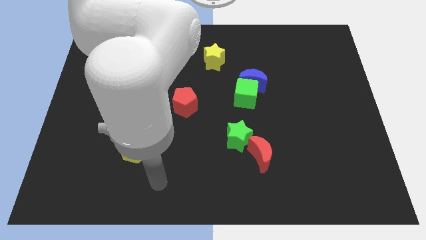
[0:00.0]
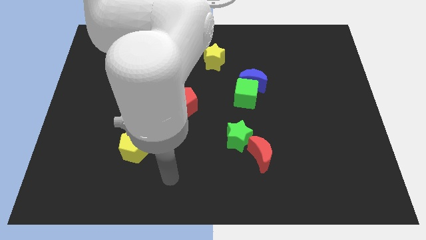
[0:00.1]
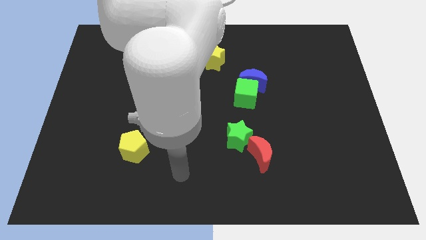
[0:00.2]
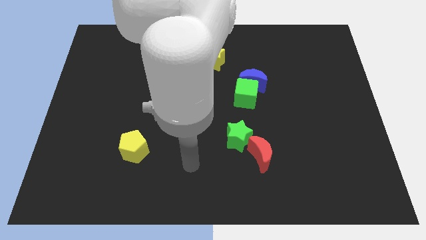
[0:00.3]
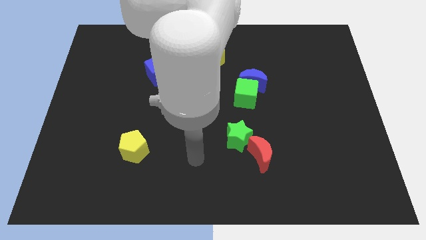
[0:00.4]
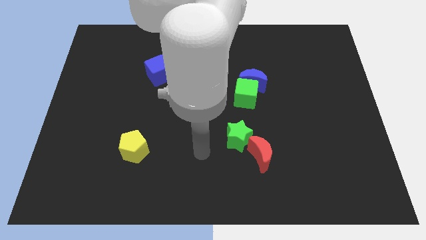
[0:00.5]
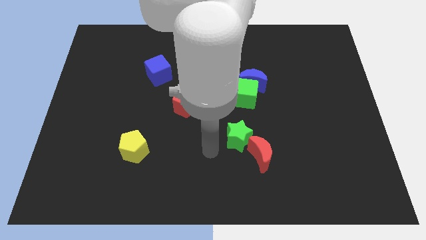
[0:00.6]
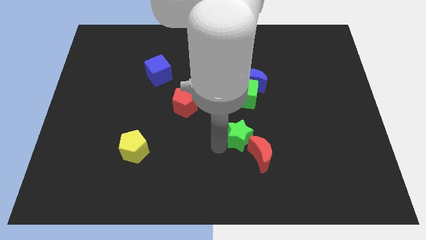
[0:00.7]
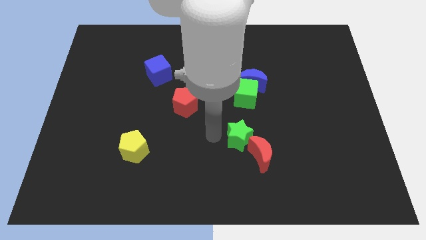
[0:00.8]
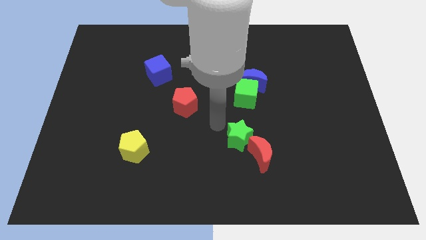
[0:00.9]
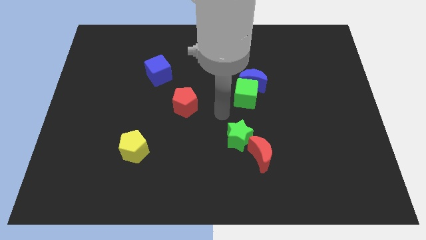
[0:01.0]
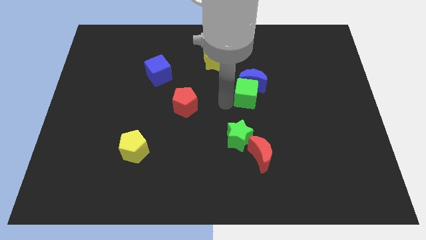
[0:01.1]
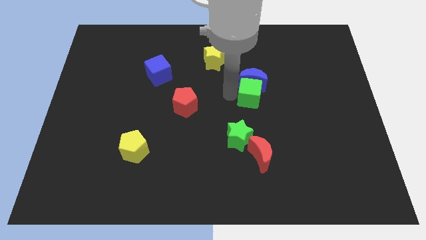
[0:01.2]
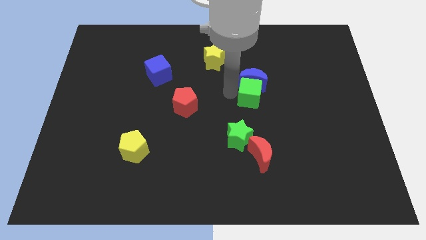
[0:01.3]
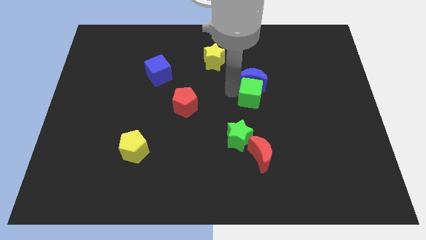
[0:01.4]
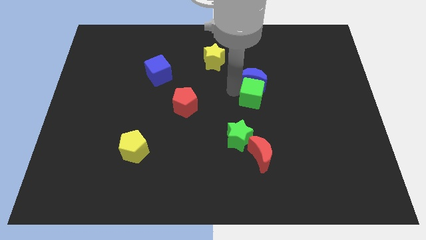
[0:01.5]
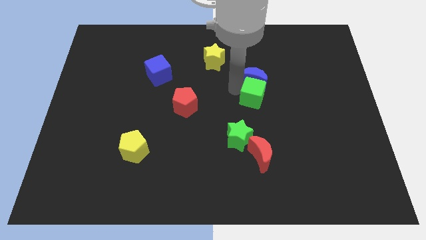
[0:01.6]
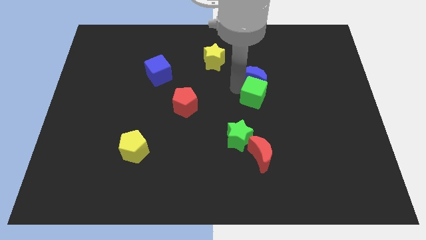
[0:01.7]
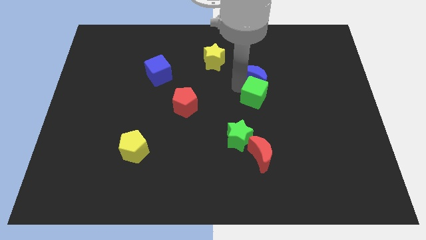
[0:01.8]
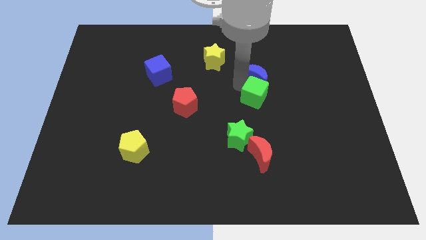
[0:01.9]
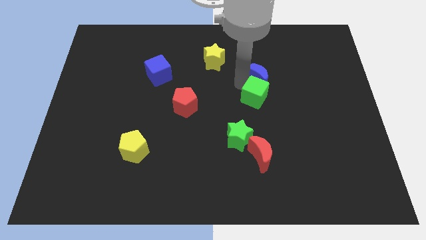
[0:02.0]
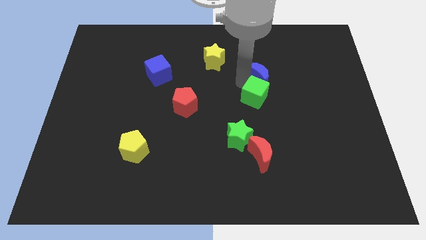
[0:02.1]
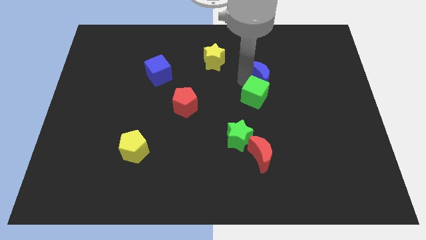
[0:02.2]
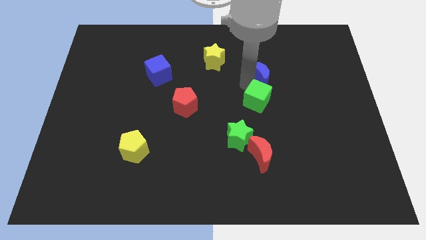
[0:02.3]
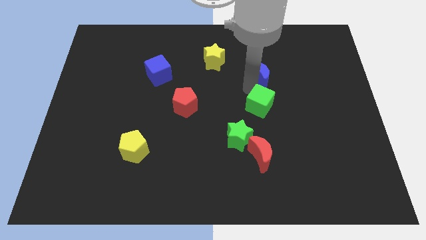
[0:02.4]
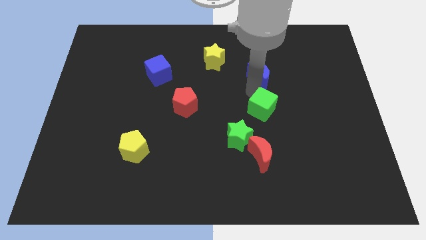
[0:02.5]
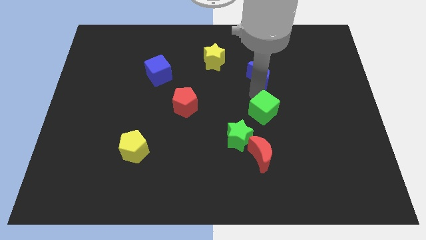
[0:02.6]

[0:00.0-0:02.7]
move the blue moon away from the green cube

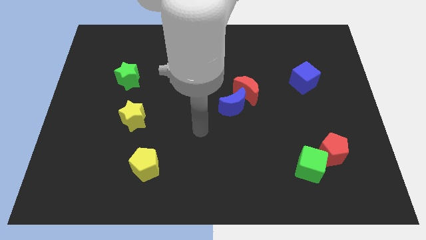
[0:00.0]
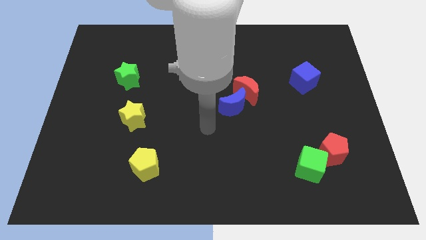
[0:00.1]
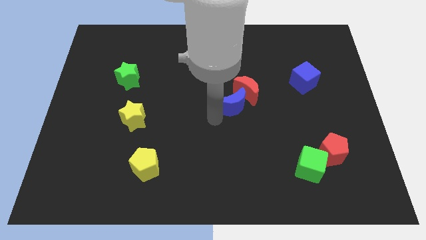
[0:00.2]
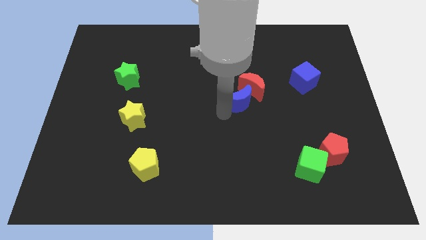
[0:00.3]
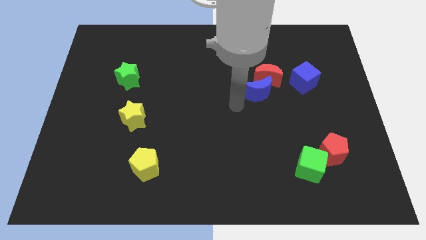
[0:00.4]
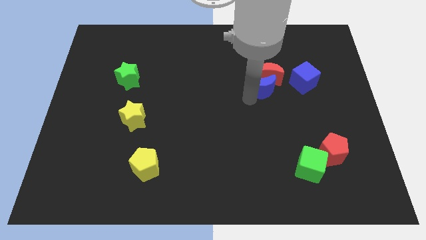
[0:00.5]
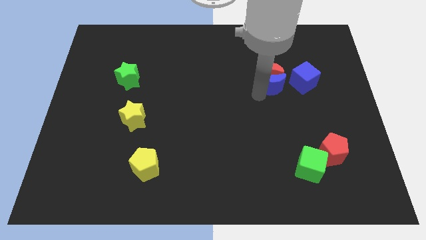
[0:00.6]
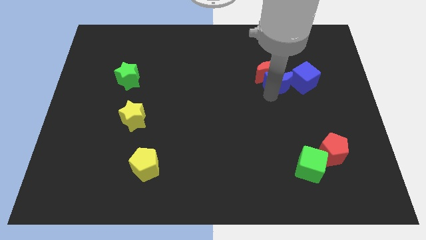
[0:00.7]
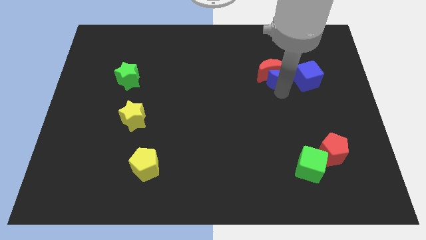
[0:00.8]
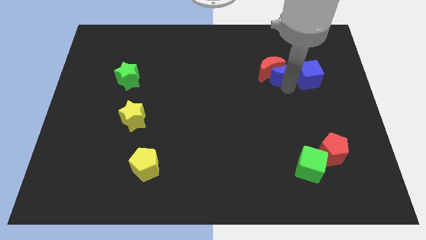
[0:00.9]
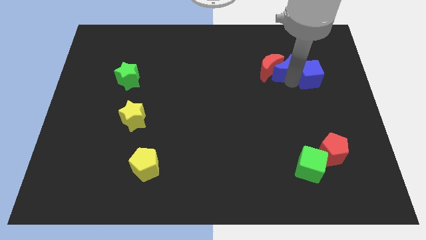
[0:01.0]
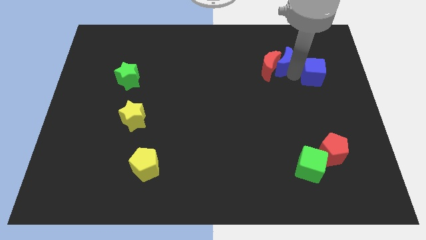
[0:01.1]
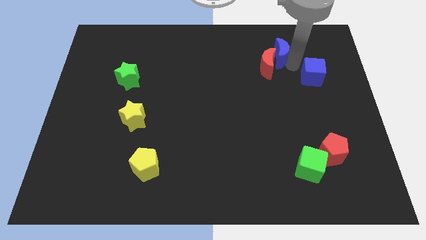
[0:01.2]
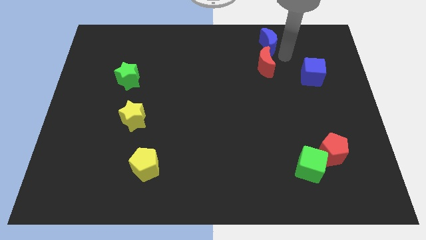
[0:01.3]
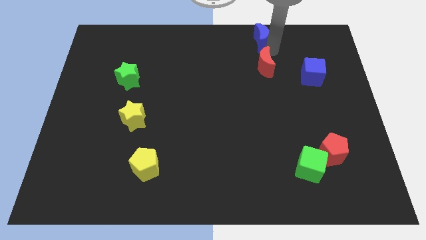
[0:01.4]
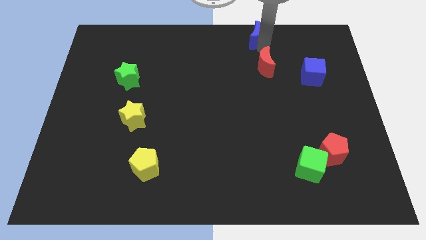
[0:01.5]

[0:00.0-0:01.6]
separate the red moon from the blue moon

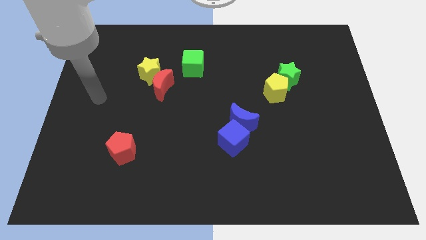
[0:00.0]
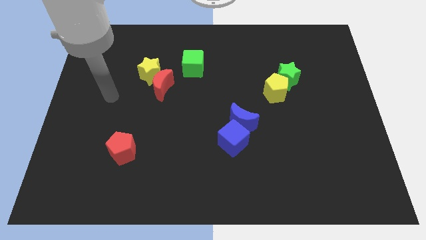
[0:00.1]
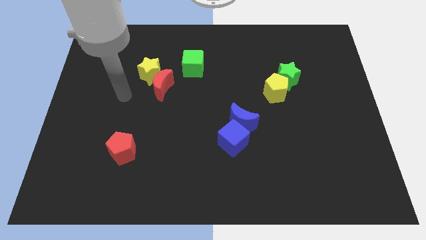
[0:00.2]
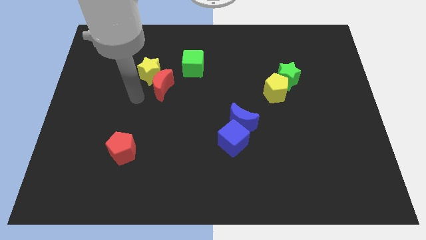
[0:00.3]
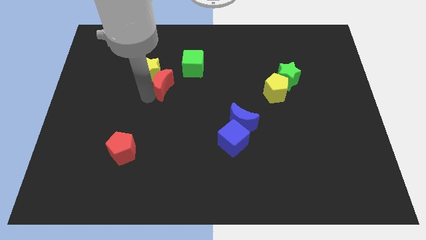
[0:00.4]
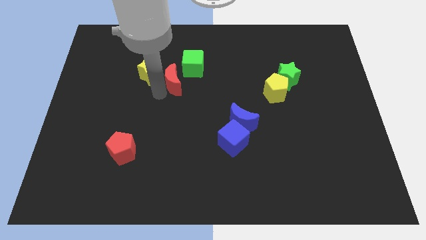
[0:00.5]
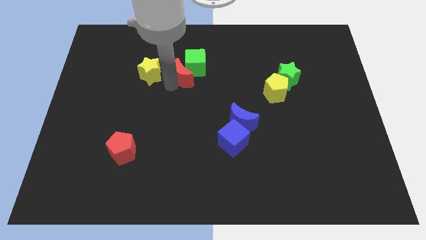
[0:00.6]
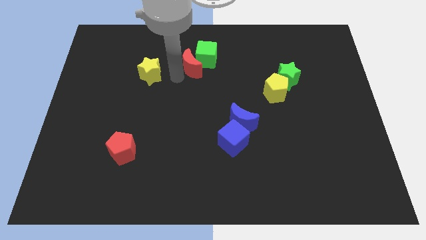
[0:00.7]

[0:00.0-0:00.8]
pull the yellow star apart from the red moon

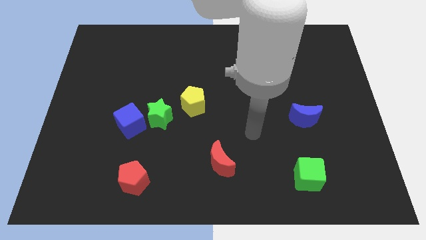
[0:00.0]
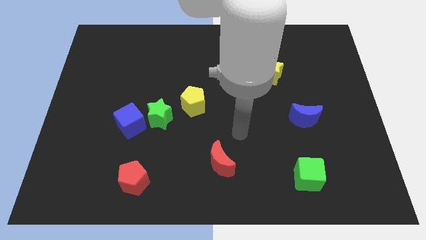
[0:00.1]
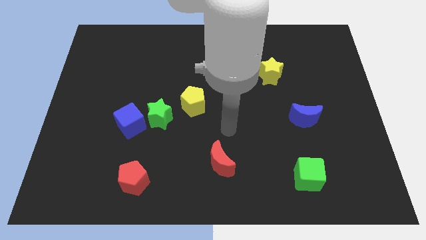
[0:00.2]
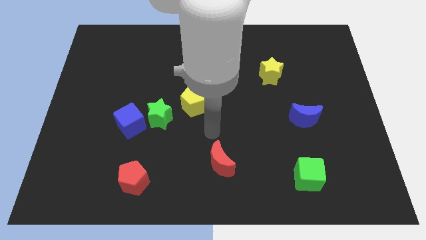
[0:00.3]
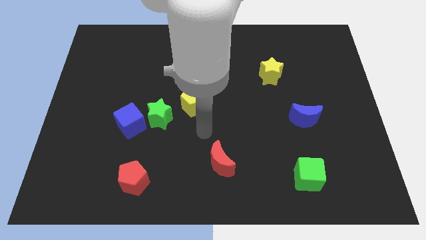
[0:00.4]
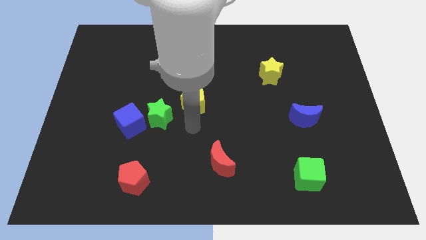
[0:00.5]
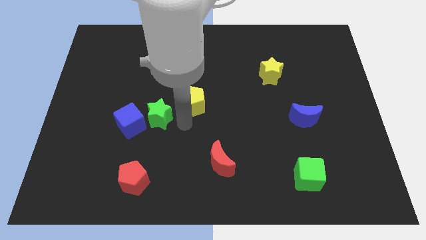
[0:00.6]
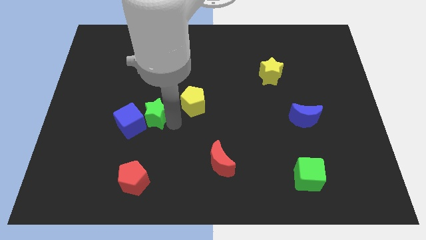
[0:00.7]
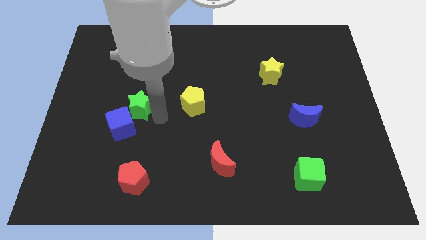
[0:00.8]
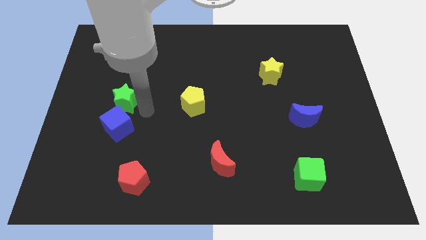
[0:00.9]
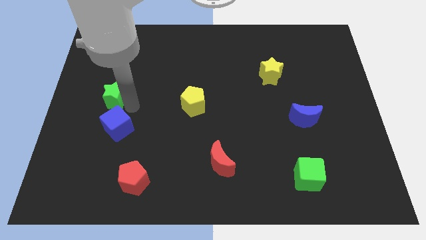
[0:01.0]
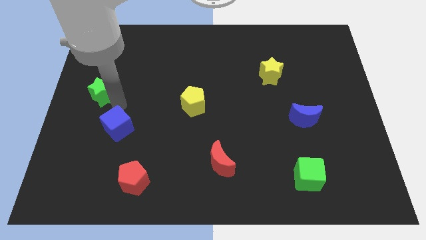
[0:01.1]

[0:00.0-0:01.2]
pull the blue cube apart from the green star

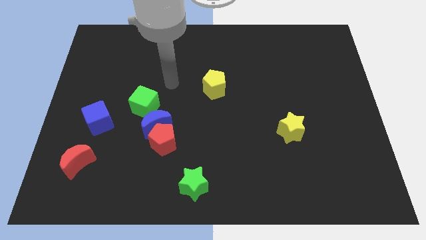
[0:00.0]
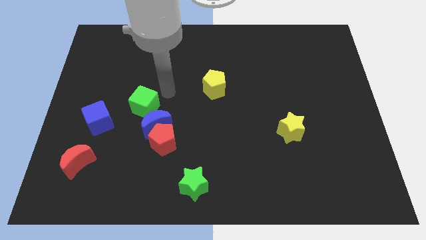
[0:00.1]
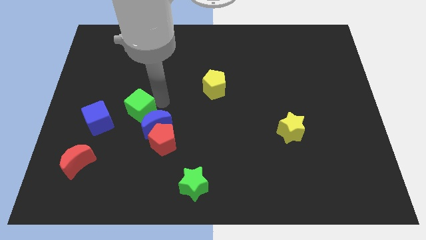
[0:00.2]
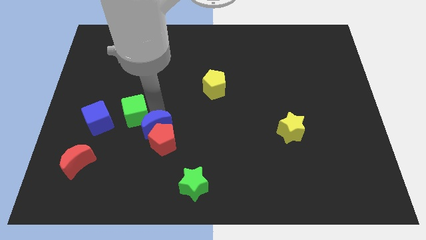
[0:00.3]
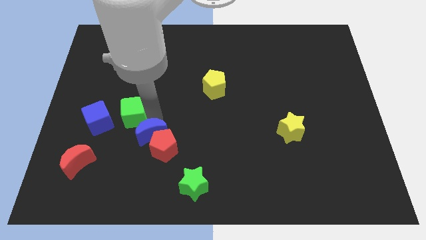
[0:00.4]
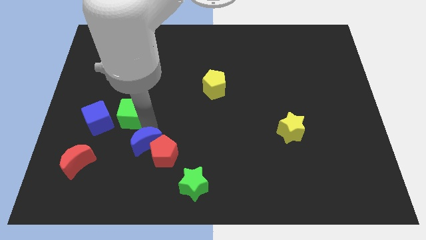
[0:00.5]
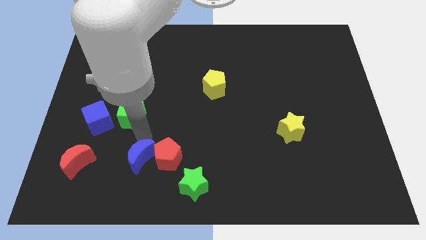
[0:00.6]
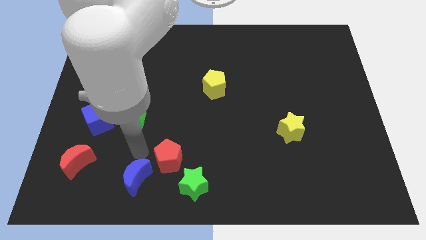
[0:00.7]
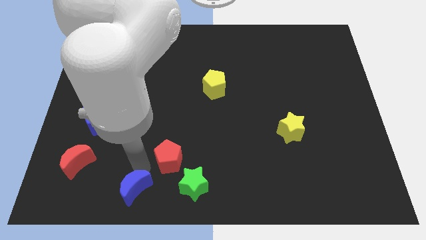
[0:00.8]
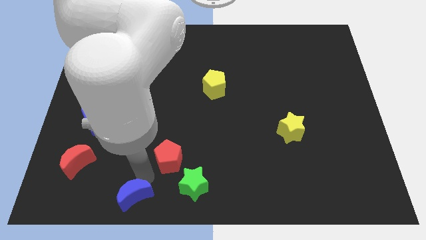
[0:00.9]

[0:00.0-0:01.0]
pull the red pentagon apart from the blue moon

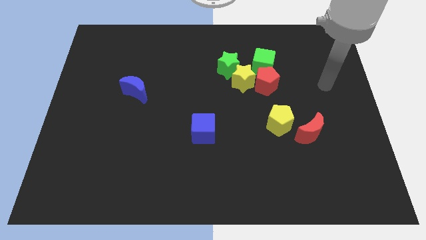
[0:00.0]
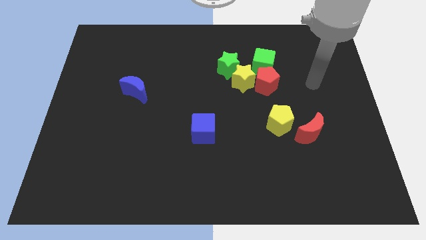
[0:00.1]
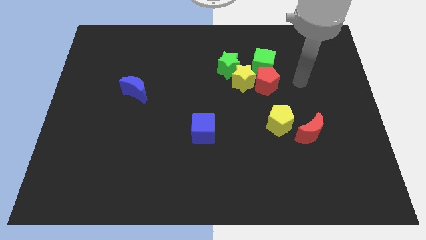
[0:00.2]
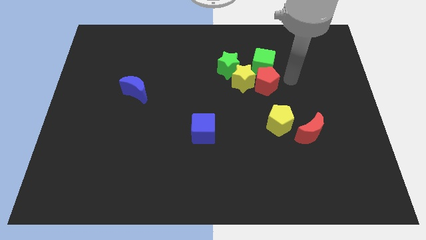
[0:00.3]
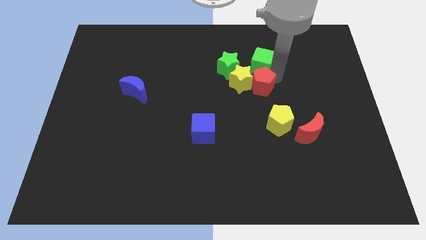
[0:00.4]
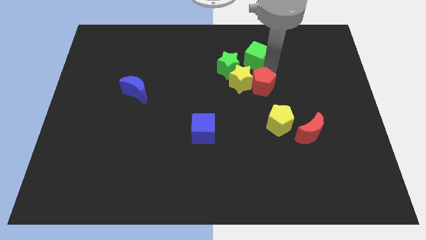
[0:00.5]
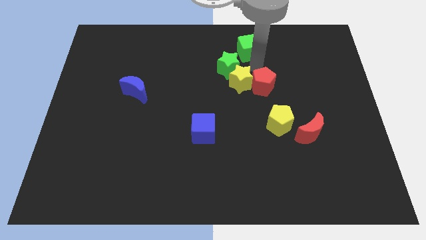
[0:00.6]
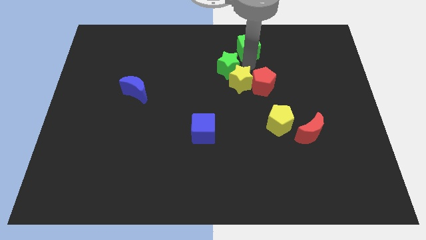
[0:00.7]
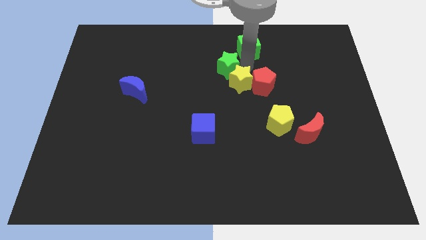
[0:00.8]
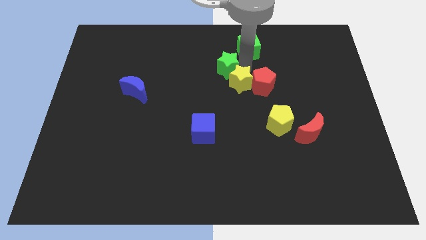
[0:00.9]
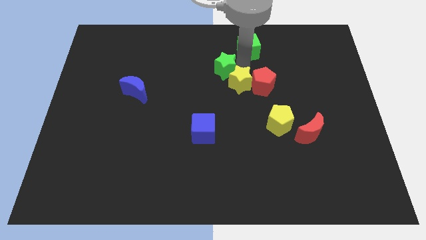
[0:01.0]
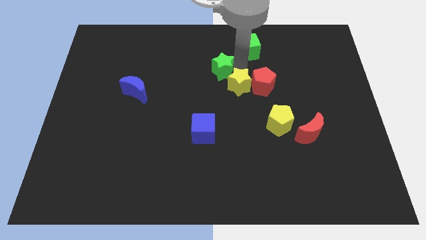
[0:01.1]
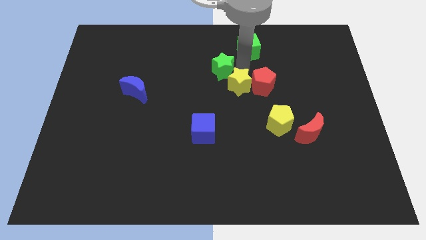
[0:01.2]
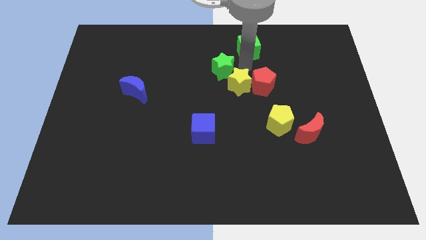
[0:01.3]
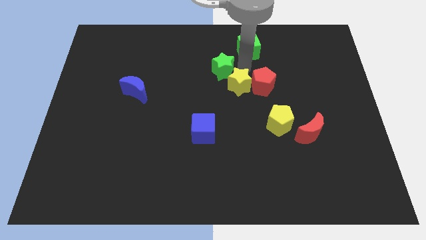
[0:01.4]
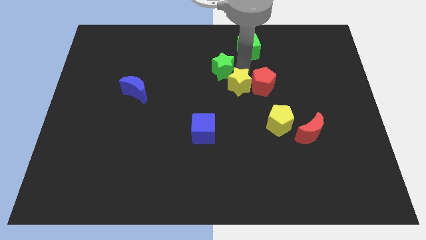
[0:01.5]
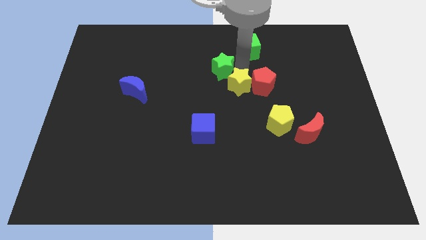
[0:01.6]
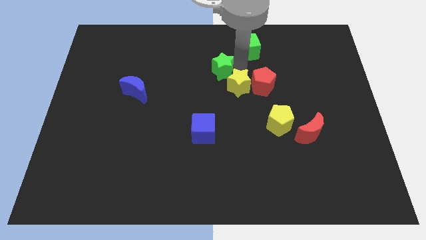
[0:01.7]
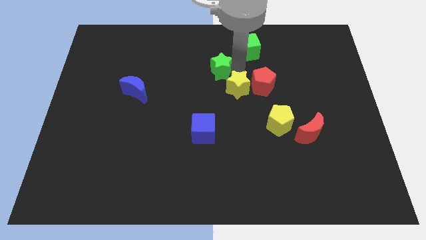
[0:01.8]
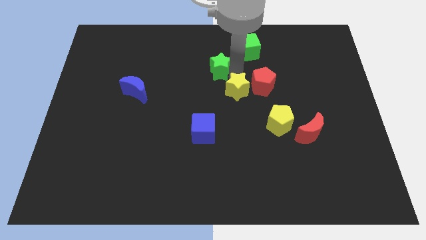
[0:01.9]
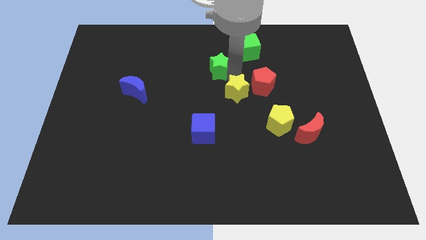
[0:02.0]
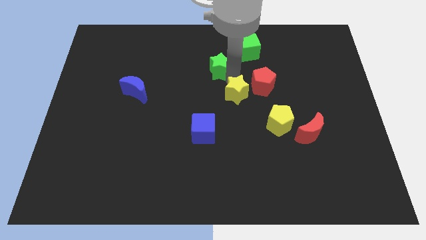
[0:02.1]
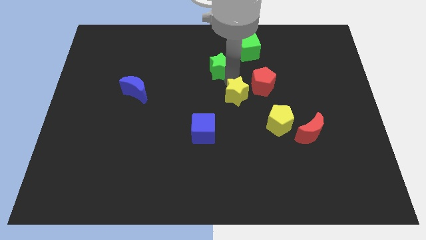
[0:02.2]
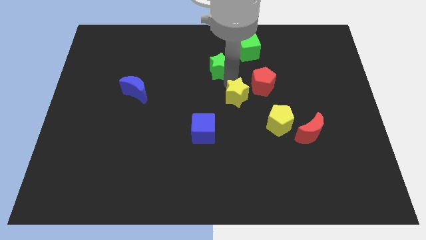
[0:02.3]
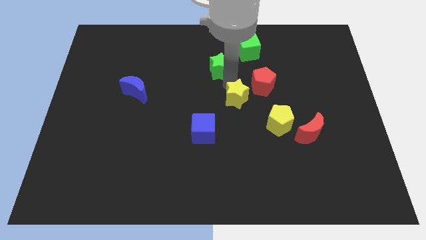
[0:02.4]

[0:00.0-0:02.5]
separate the yellow star from the clump
